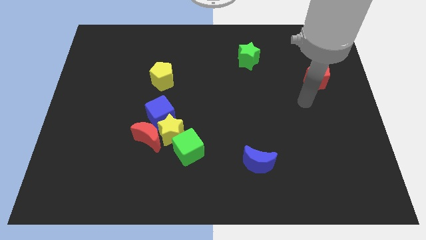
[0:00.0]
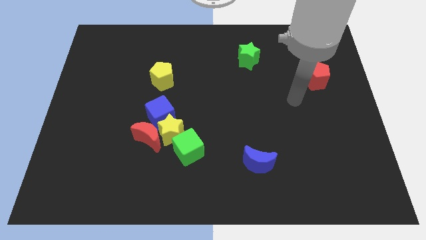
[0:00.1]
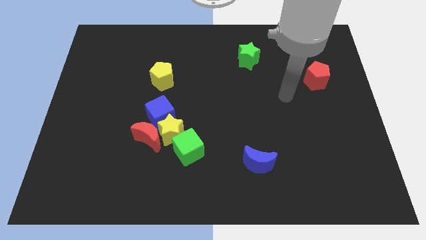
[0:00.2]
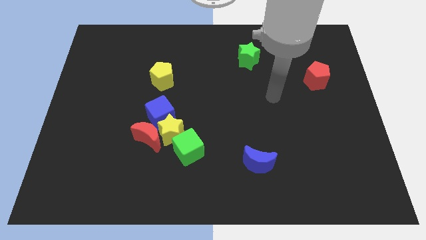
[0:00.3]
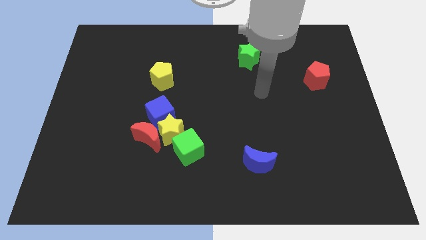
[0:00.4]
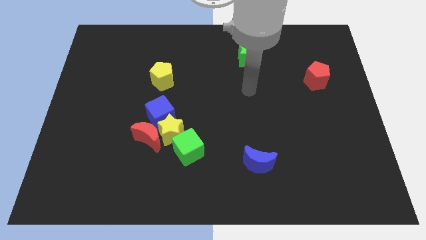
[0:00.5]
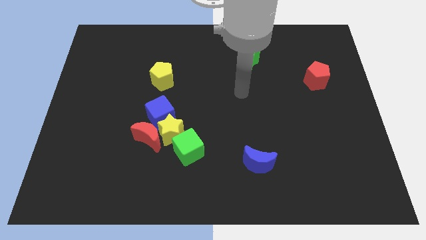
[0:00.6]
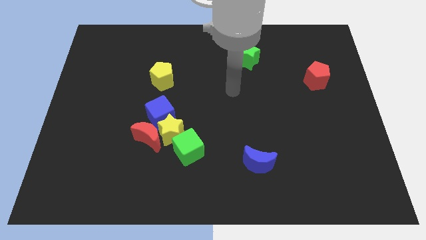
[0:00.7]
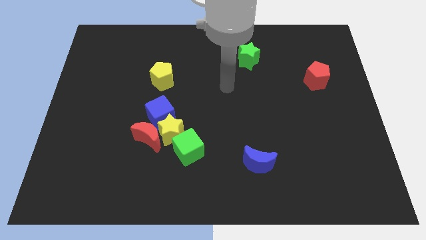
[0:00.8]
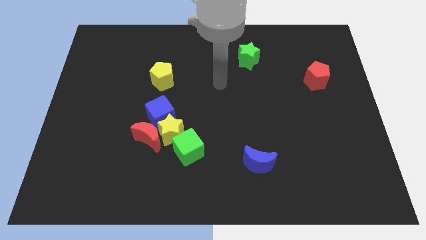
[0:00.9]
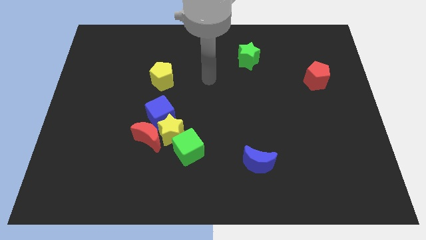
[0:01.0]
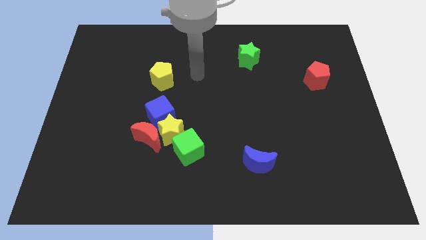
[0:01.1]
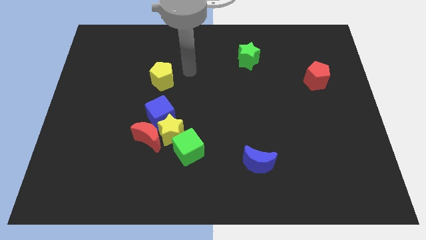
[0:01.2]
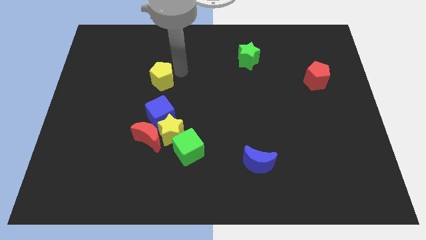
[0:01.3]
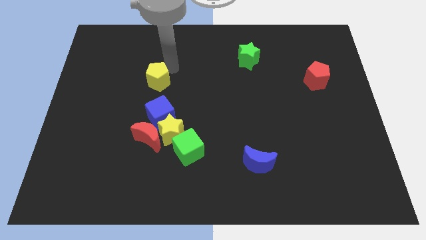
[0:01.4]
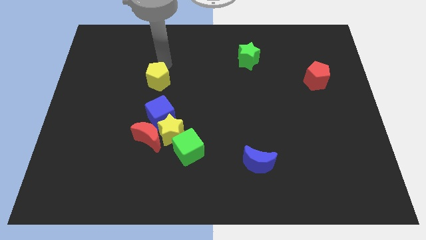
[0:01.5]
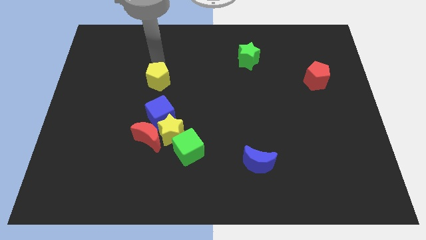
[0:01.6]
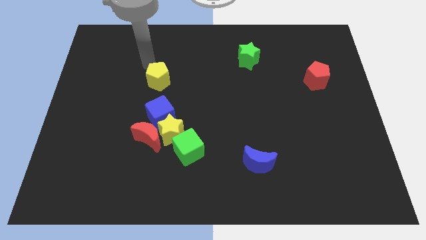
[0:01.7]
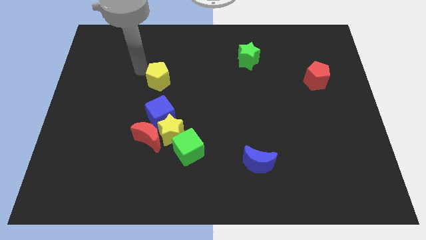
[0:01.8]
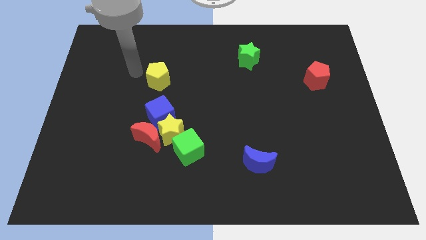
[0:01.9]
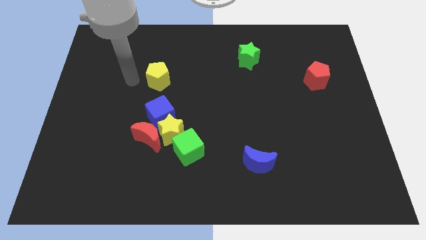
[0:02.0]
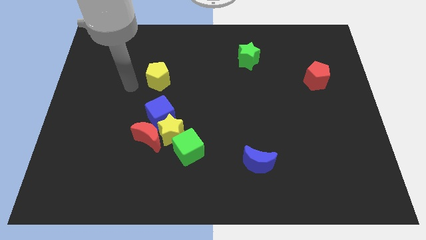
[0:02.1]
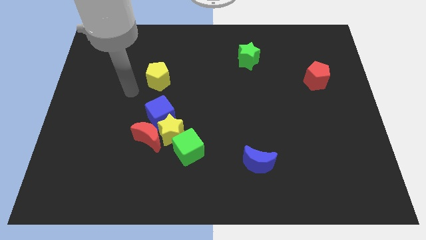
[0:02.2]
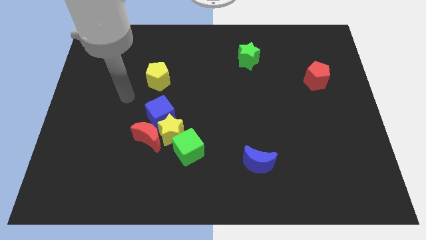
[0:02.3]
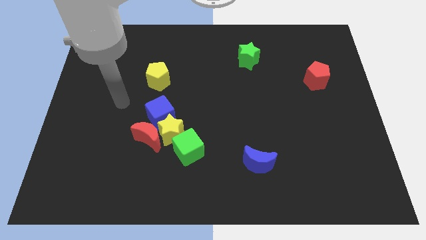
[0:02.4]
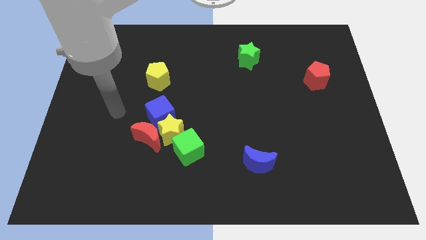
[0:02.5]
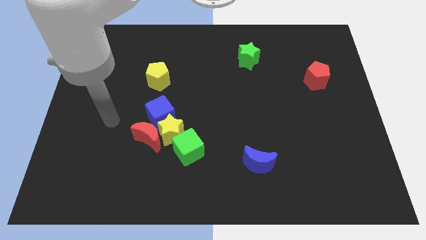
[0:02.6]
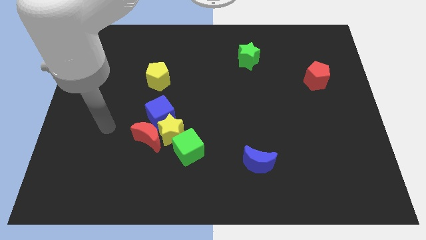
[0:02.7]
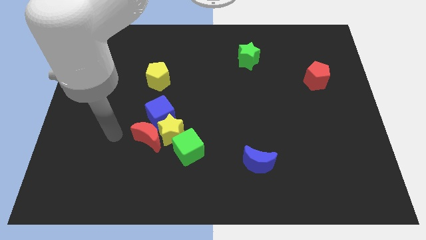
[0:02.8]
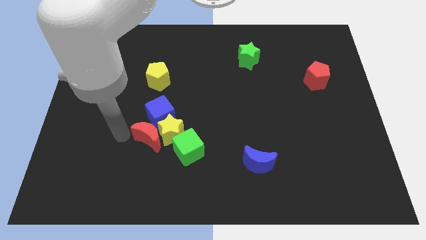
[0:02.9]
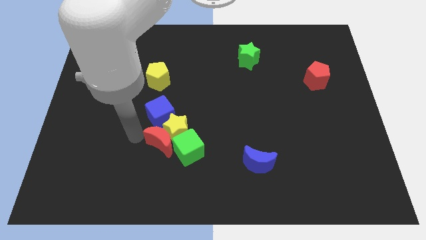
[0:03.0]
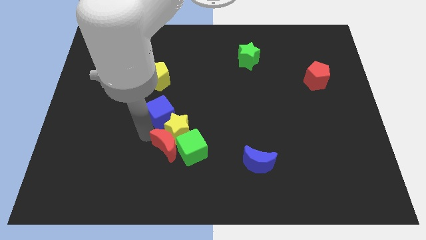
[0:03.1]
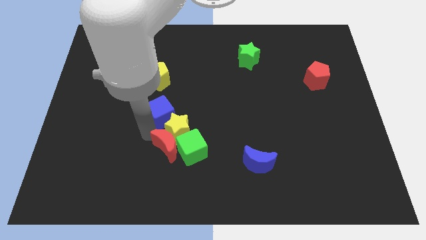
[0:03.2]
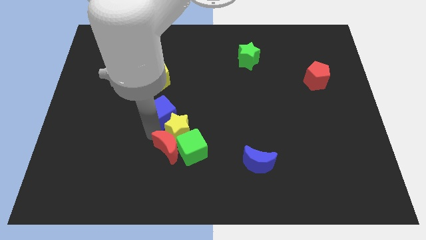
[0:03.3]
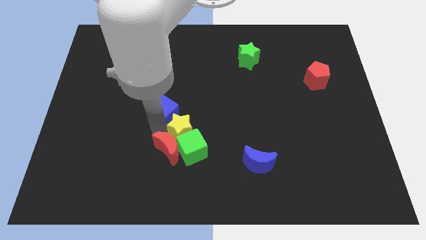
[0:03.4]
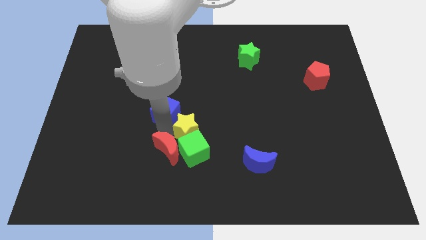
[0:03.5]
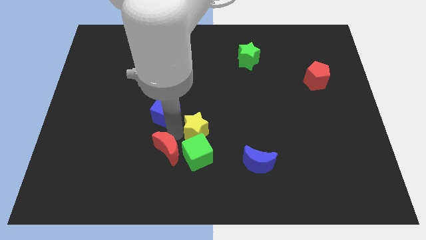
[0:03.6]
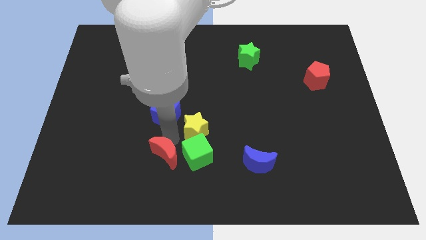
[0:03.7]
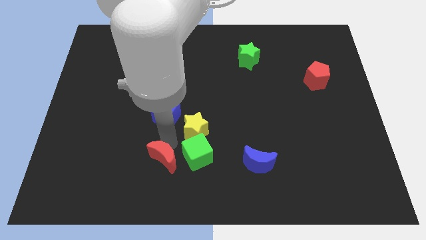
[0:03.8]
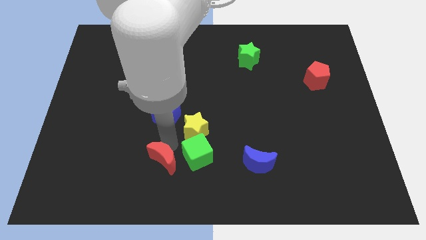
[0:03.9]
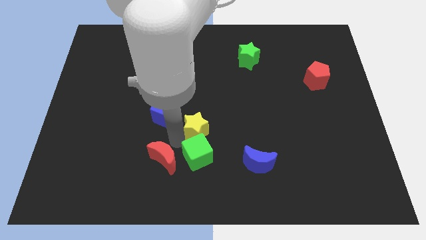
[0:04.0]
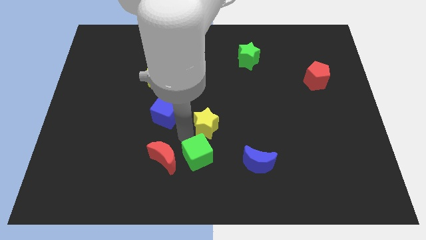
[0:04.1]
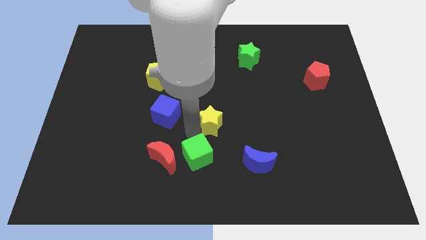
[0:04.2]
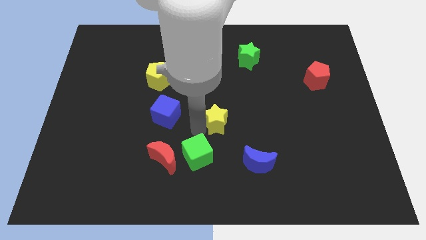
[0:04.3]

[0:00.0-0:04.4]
move the yellow star away from the red moon, blue cube, and green cube

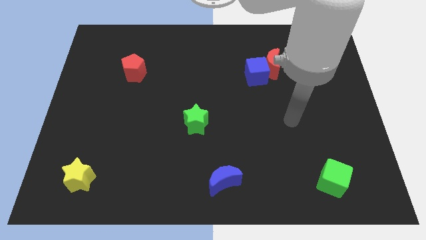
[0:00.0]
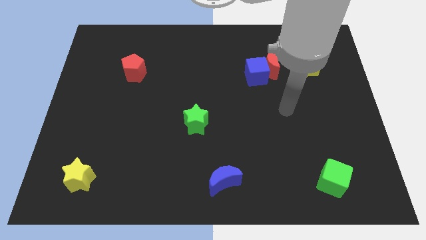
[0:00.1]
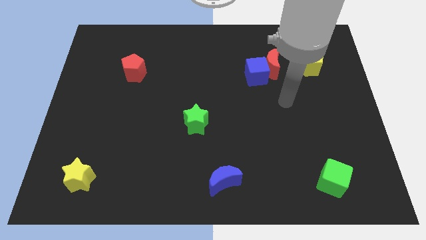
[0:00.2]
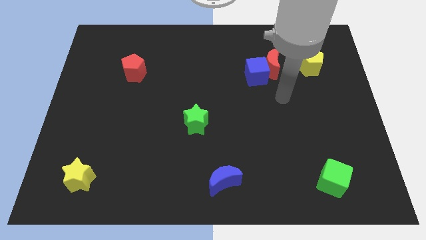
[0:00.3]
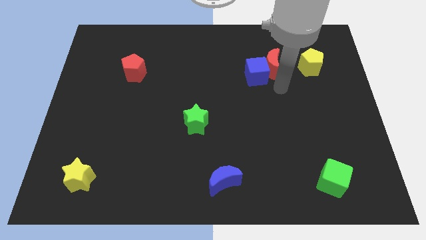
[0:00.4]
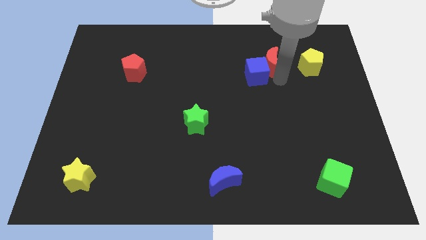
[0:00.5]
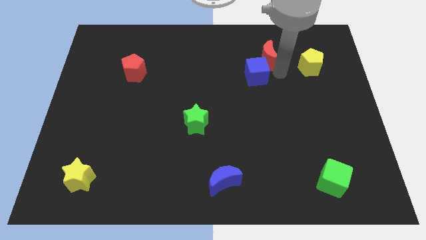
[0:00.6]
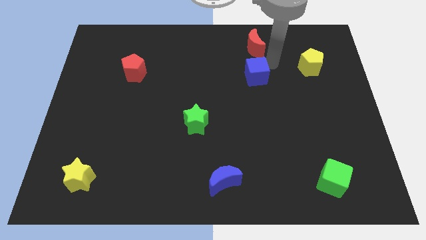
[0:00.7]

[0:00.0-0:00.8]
pull the blue cube apart from the red moon

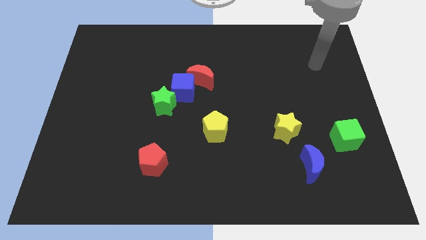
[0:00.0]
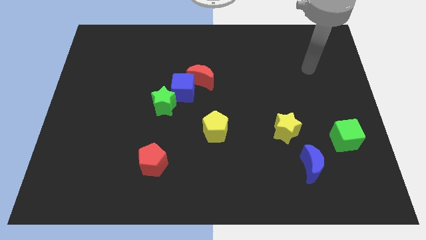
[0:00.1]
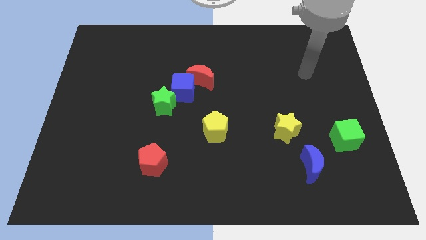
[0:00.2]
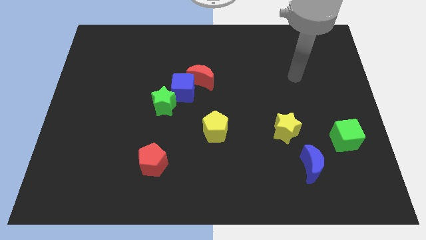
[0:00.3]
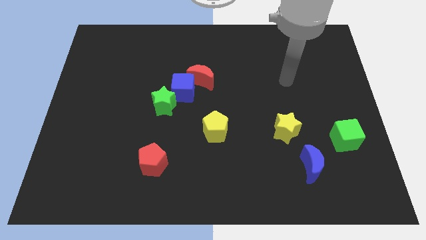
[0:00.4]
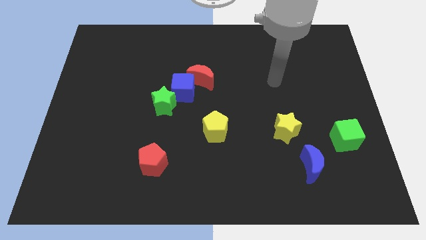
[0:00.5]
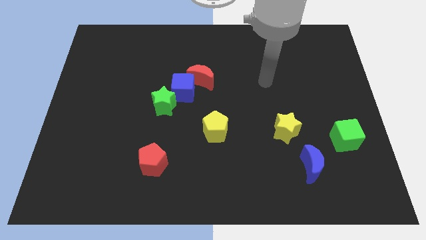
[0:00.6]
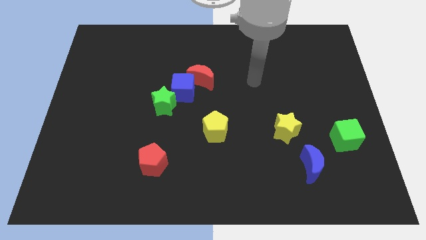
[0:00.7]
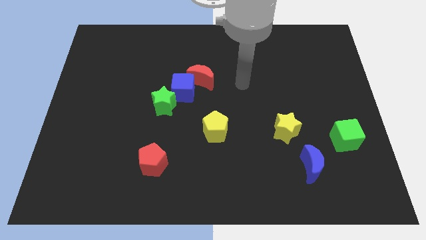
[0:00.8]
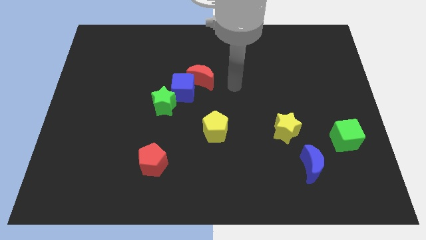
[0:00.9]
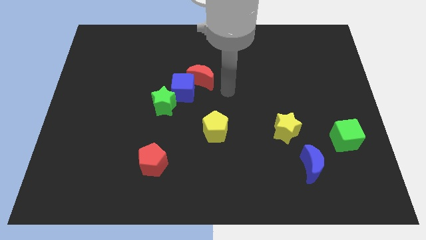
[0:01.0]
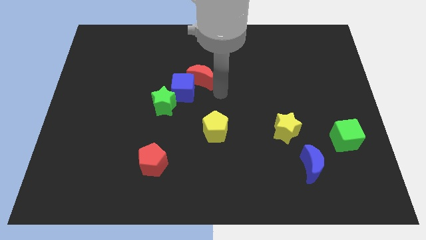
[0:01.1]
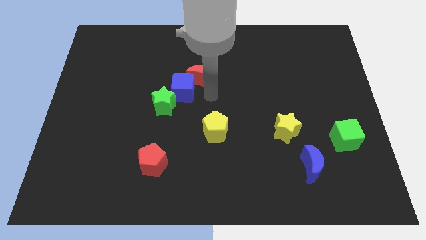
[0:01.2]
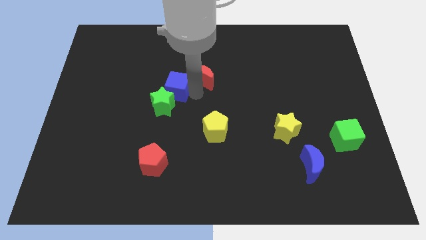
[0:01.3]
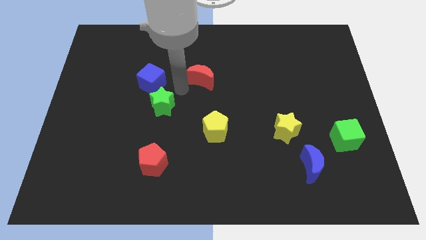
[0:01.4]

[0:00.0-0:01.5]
separate the red moon from the blue cube

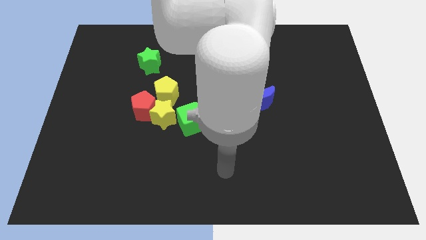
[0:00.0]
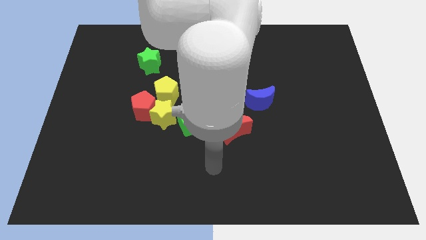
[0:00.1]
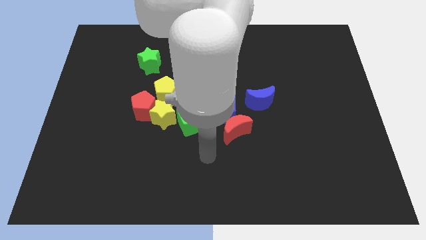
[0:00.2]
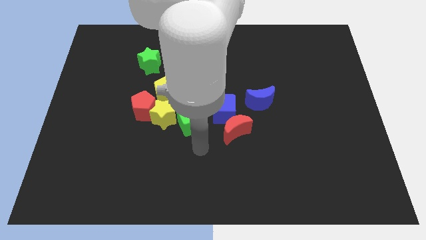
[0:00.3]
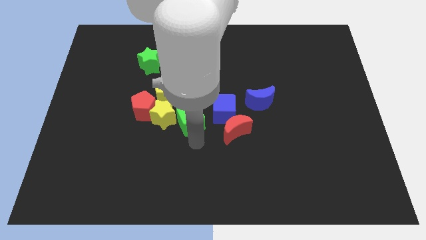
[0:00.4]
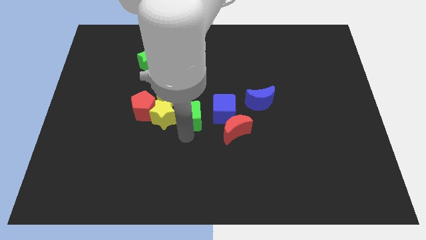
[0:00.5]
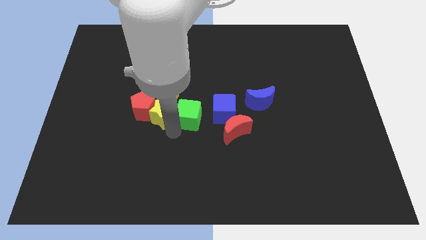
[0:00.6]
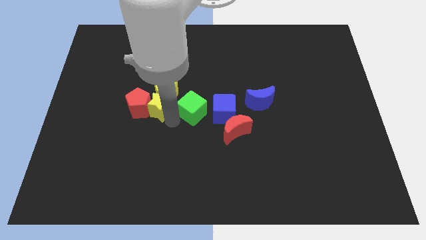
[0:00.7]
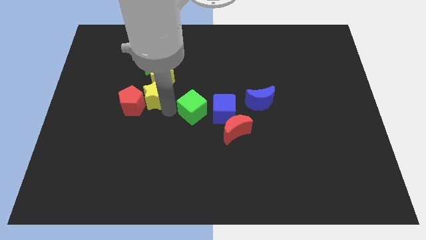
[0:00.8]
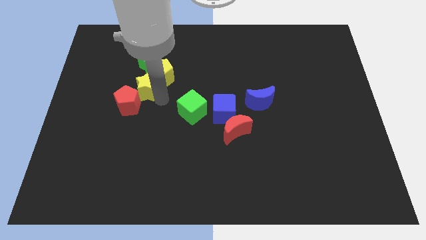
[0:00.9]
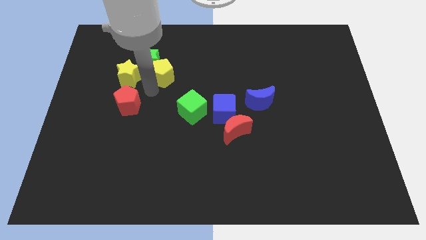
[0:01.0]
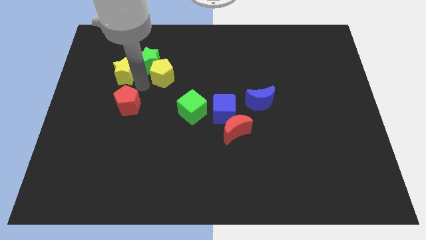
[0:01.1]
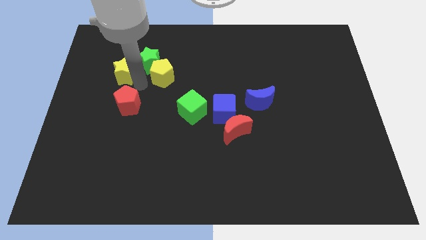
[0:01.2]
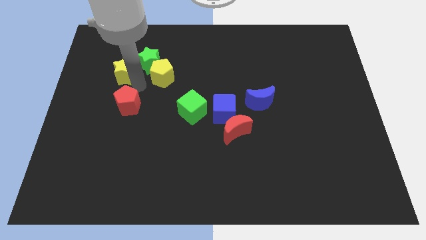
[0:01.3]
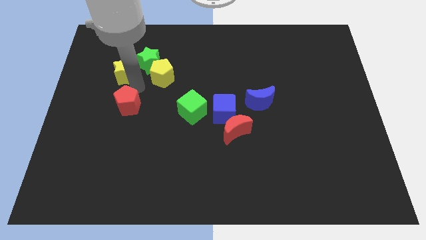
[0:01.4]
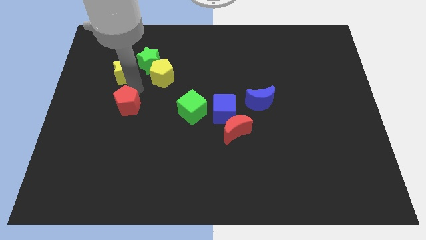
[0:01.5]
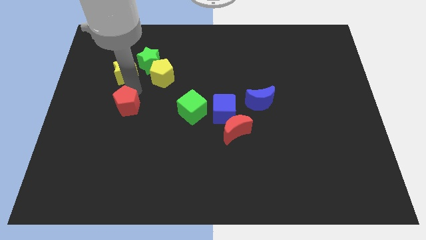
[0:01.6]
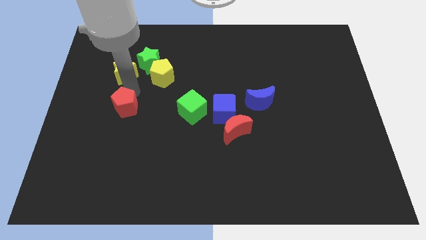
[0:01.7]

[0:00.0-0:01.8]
move the red pentagon away from the yellow star and yellow pentagon

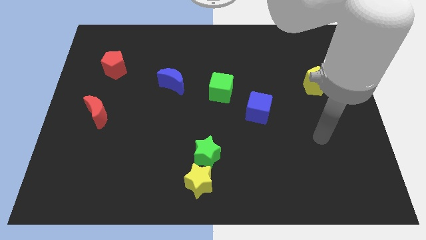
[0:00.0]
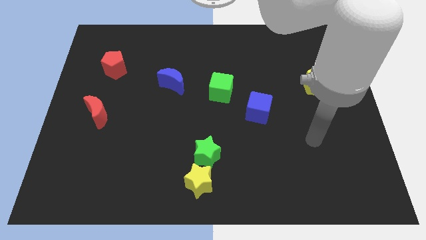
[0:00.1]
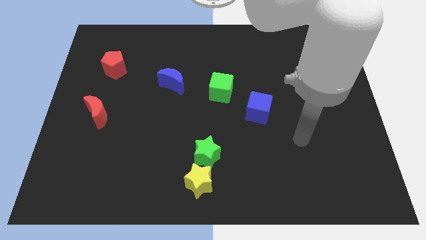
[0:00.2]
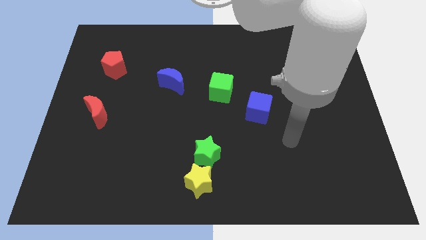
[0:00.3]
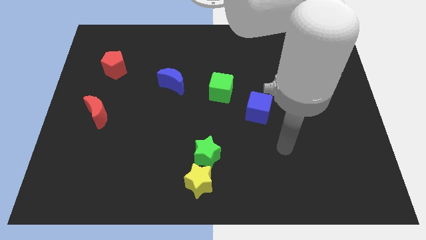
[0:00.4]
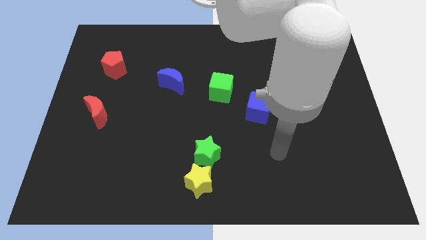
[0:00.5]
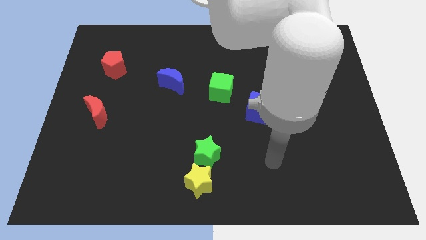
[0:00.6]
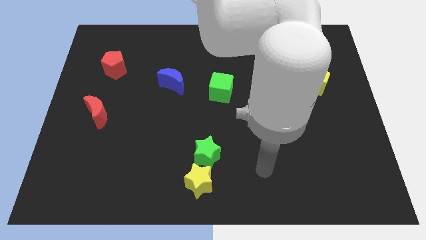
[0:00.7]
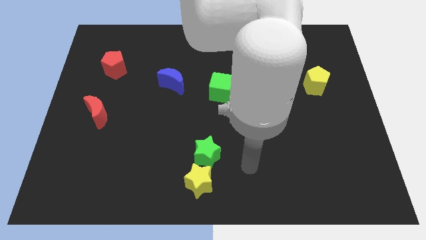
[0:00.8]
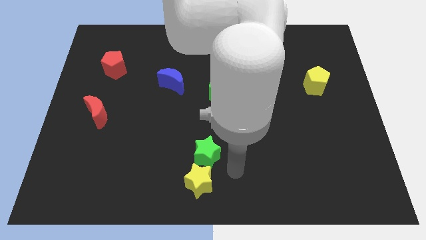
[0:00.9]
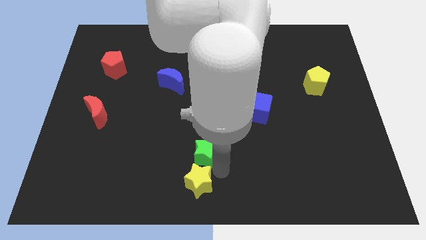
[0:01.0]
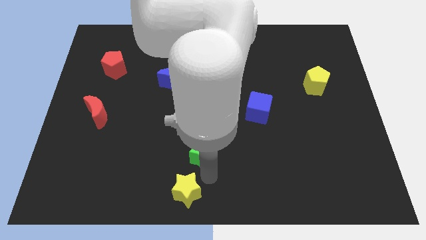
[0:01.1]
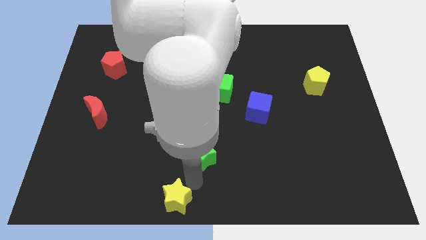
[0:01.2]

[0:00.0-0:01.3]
pull the green star apart from the yellow star
